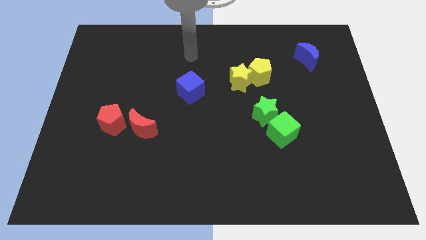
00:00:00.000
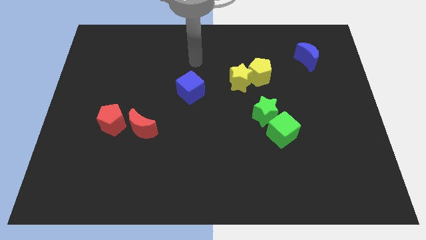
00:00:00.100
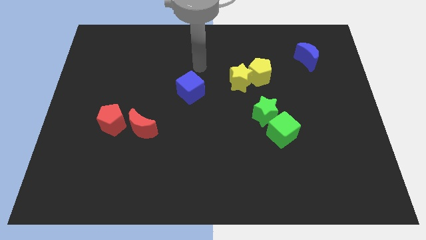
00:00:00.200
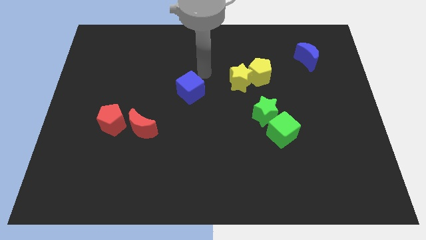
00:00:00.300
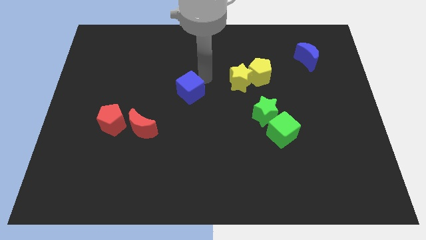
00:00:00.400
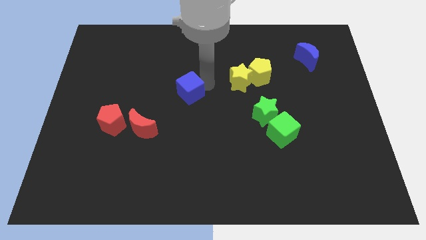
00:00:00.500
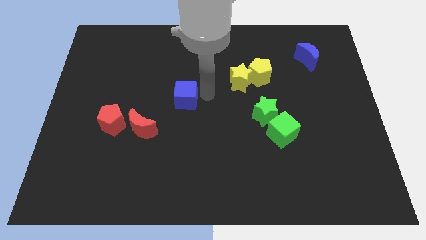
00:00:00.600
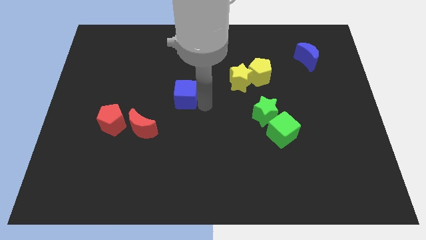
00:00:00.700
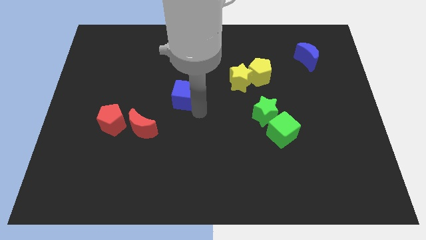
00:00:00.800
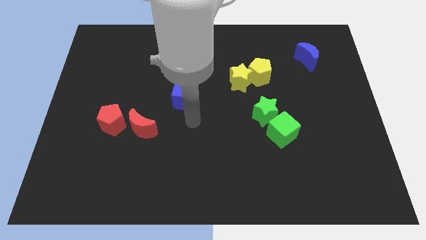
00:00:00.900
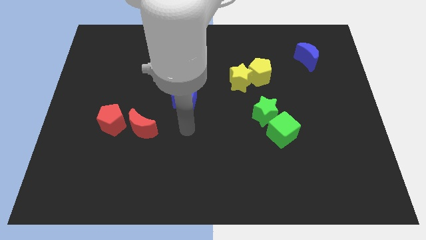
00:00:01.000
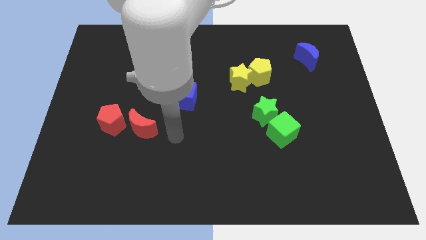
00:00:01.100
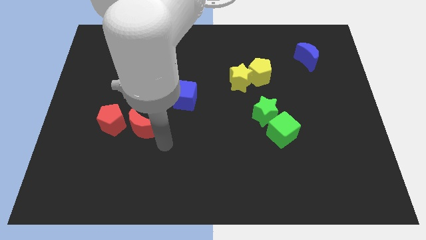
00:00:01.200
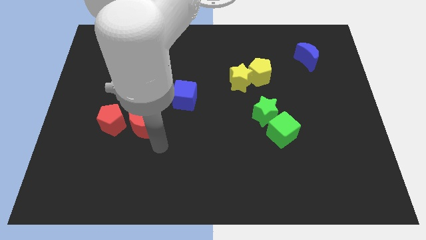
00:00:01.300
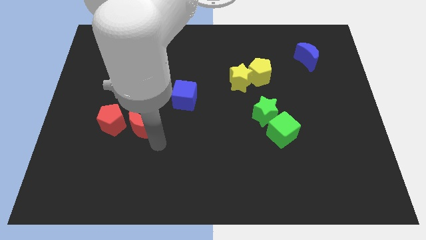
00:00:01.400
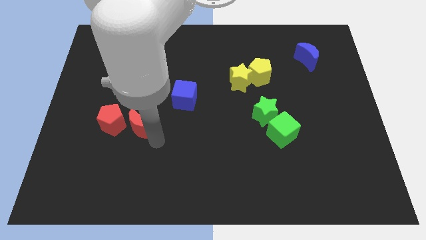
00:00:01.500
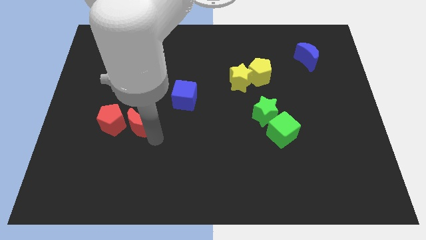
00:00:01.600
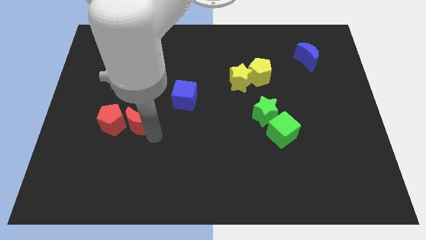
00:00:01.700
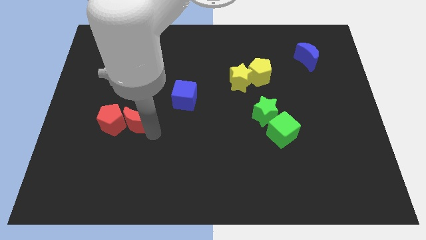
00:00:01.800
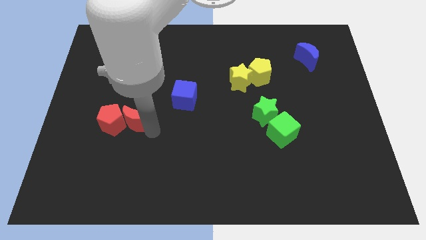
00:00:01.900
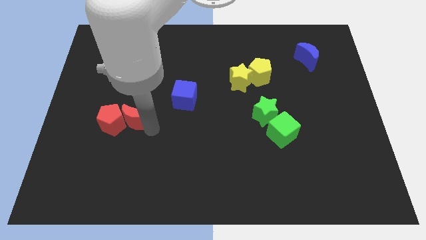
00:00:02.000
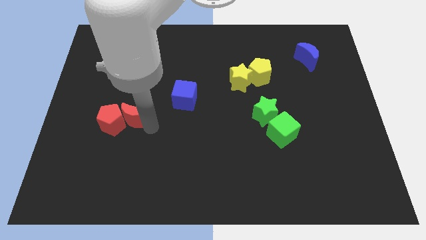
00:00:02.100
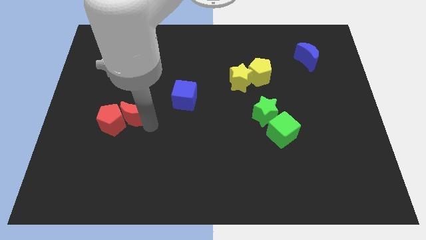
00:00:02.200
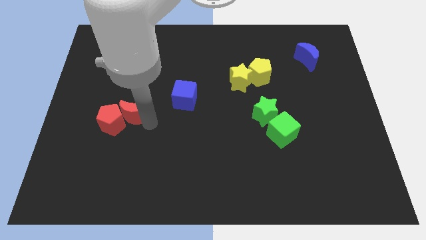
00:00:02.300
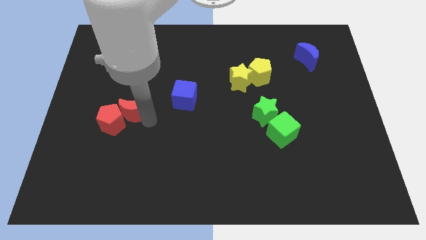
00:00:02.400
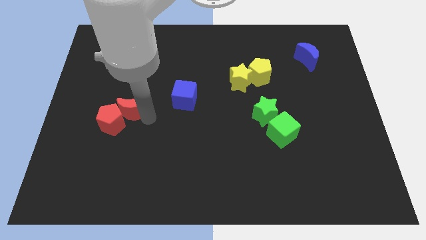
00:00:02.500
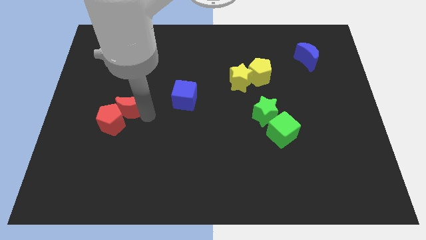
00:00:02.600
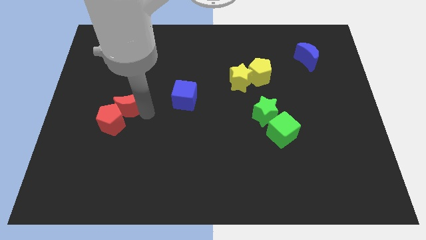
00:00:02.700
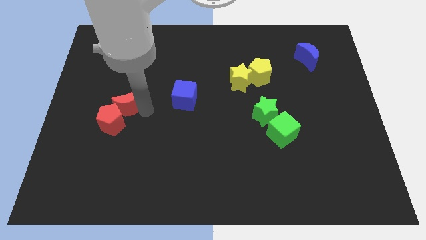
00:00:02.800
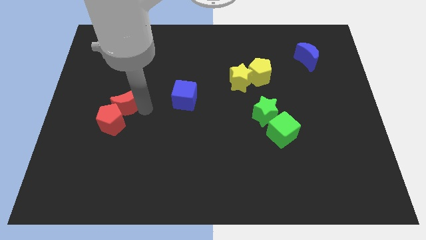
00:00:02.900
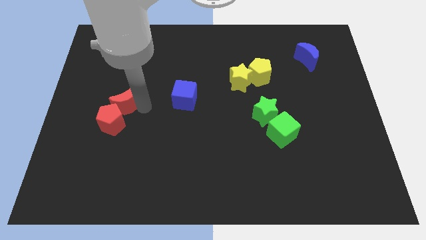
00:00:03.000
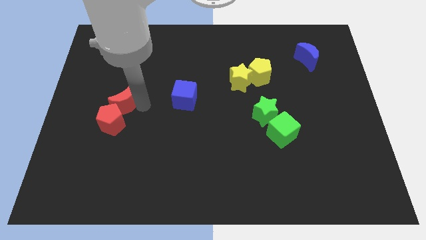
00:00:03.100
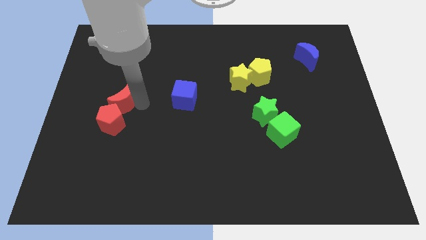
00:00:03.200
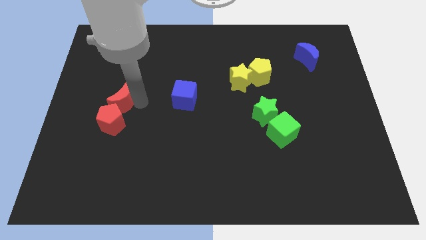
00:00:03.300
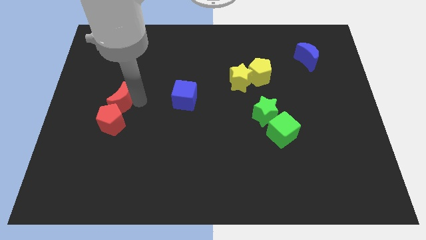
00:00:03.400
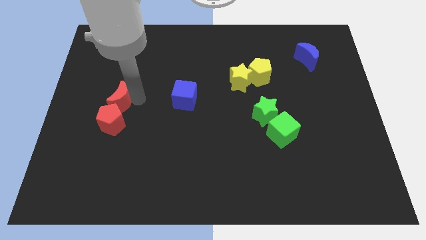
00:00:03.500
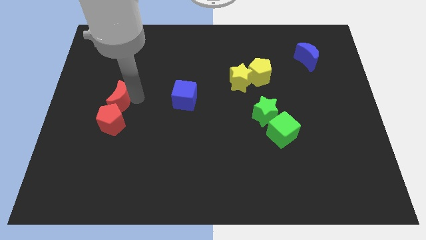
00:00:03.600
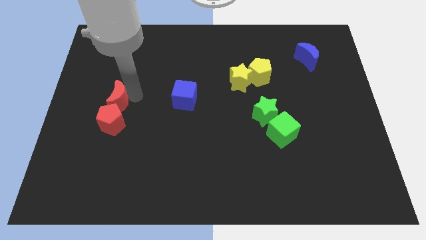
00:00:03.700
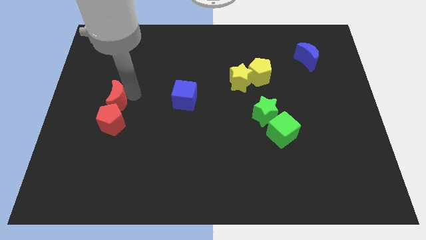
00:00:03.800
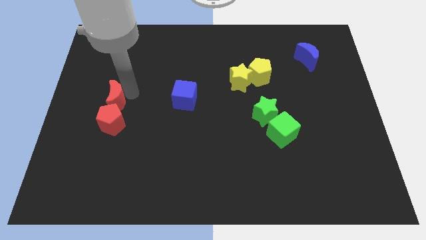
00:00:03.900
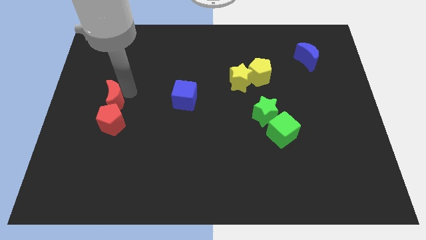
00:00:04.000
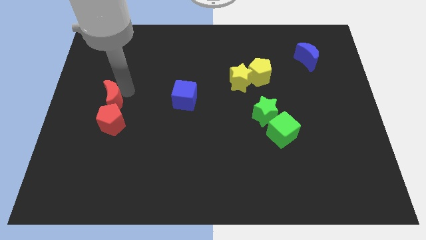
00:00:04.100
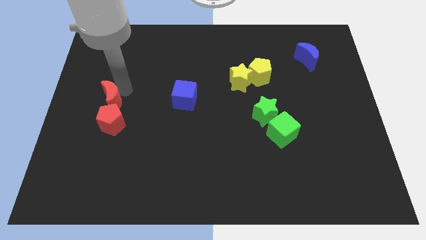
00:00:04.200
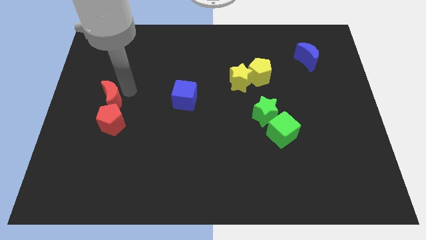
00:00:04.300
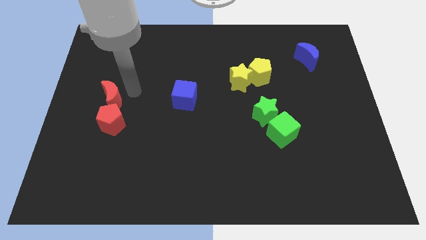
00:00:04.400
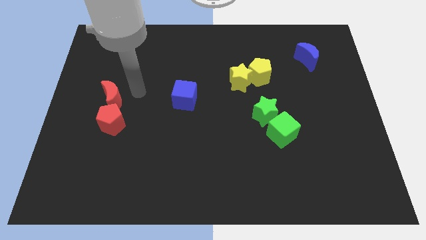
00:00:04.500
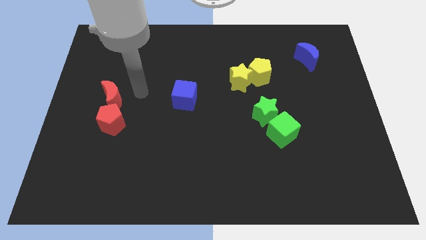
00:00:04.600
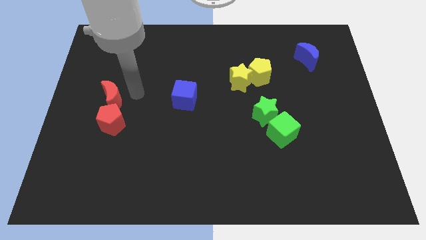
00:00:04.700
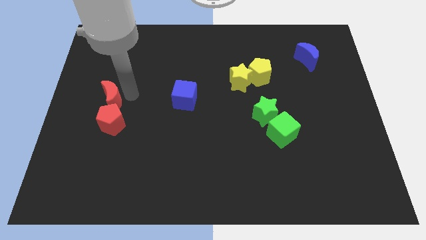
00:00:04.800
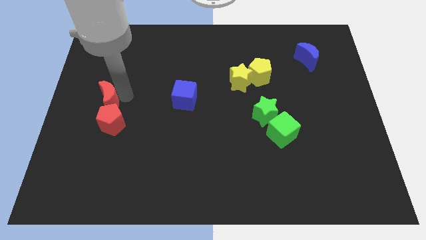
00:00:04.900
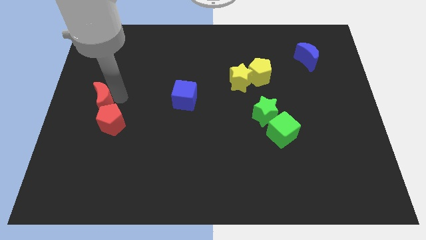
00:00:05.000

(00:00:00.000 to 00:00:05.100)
slide the red moon to the center left

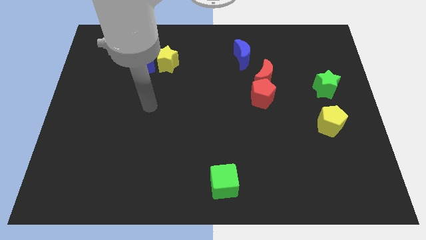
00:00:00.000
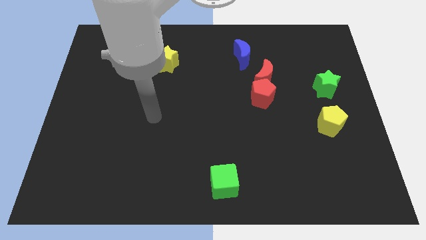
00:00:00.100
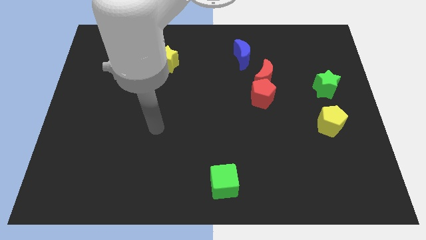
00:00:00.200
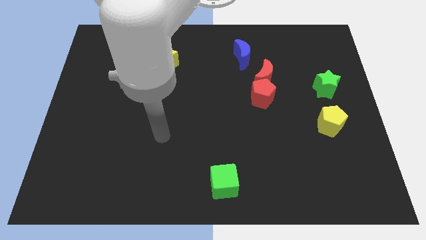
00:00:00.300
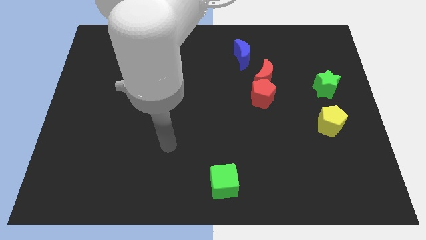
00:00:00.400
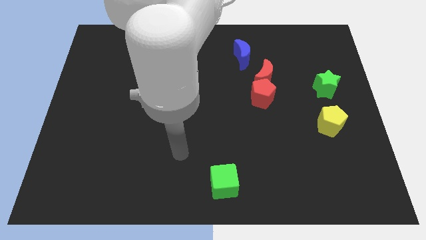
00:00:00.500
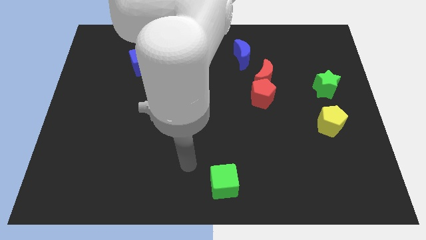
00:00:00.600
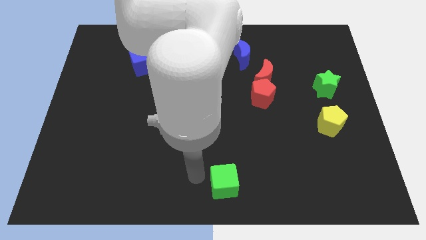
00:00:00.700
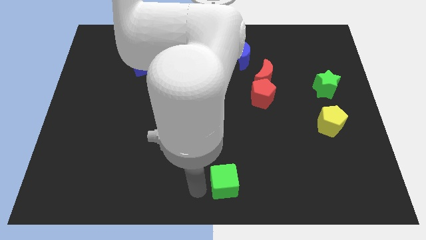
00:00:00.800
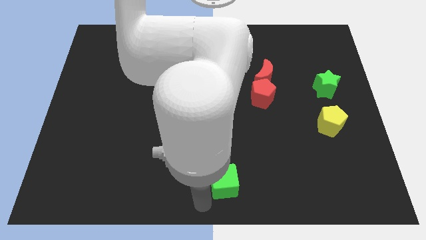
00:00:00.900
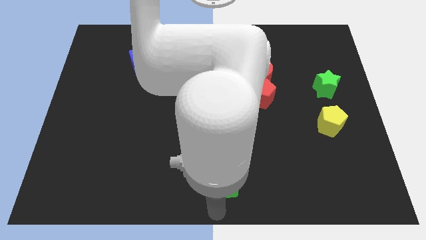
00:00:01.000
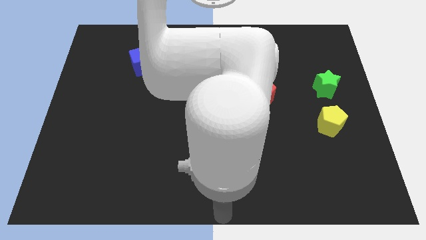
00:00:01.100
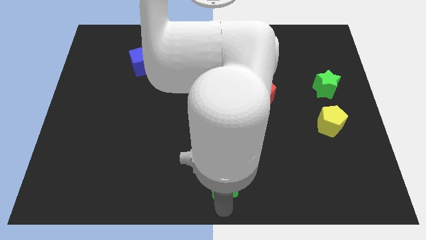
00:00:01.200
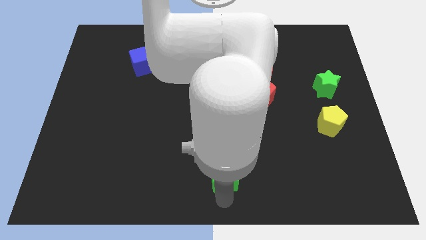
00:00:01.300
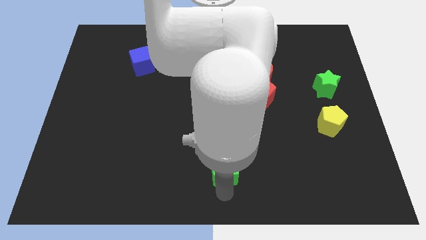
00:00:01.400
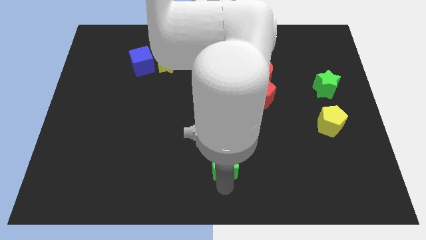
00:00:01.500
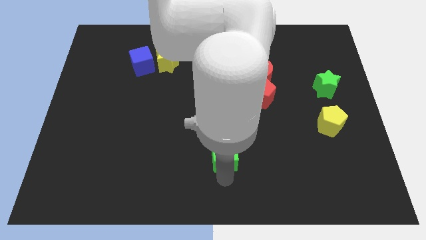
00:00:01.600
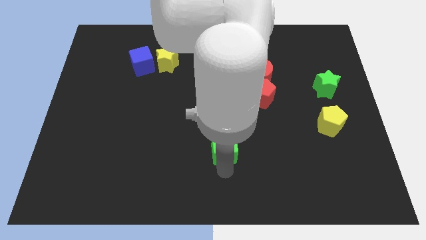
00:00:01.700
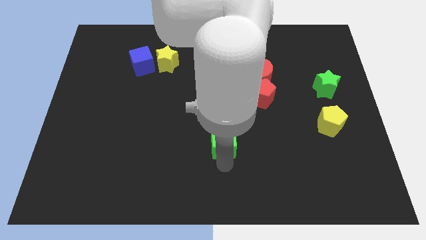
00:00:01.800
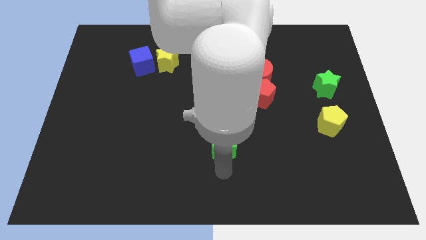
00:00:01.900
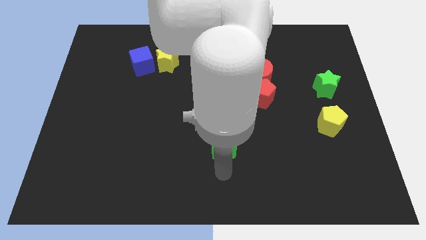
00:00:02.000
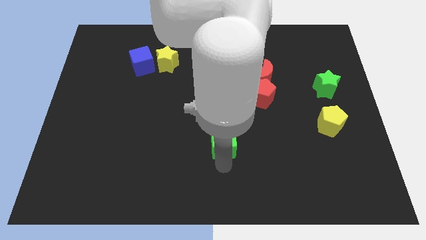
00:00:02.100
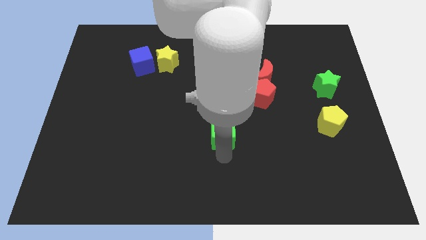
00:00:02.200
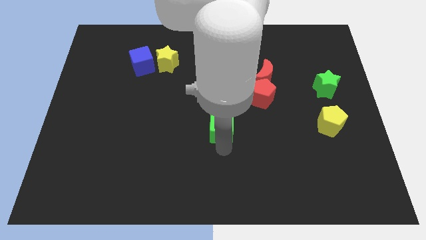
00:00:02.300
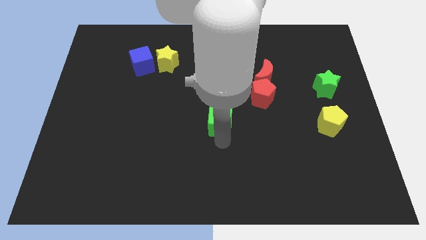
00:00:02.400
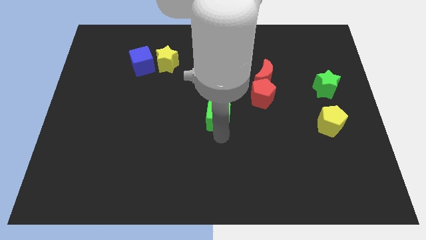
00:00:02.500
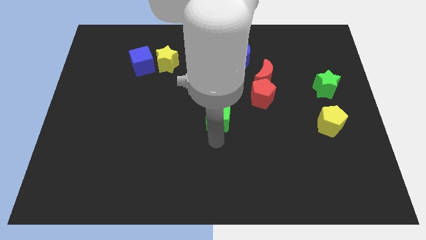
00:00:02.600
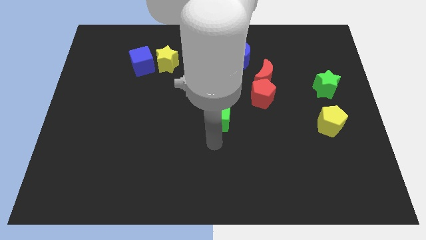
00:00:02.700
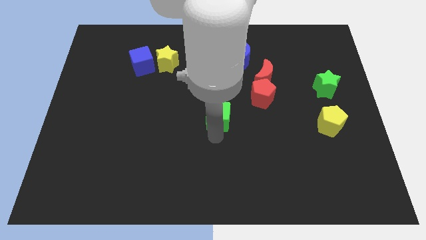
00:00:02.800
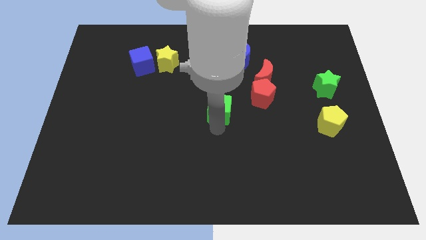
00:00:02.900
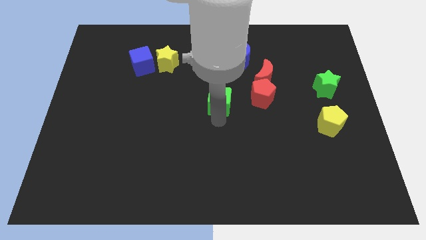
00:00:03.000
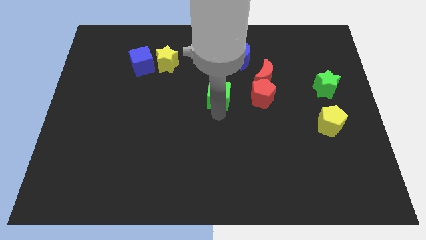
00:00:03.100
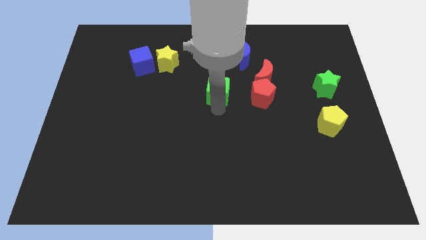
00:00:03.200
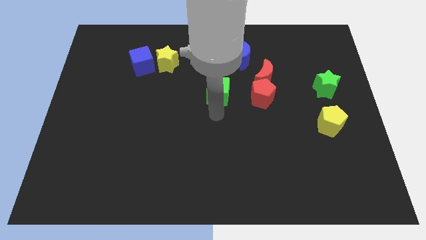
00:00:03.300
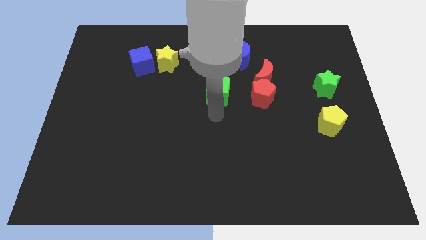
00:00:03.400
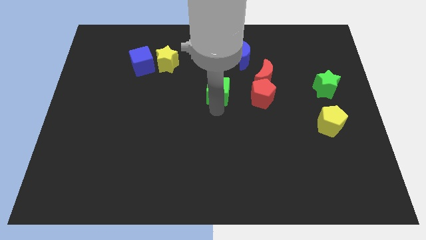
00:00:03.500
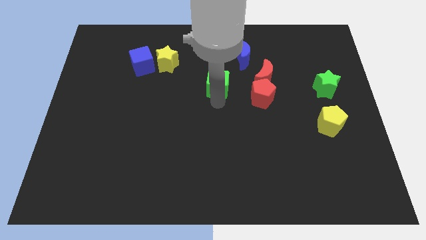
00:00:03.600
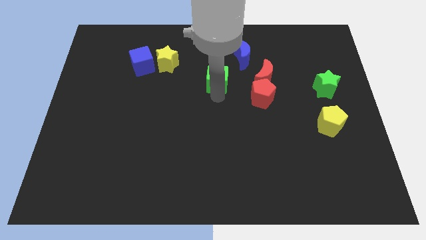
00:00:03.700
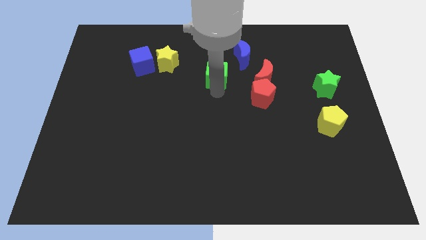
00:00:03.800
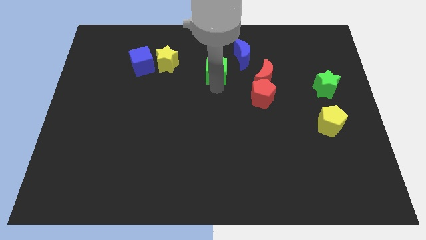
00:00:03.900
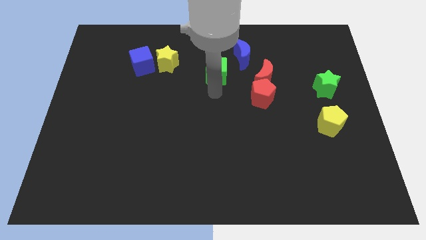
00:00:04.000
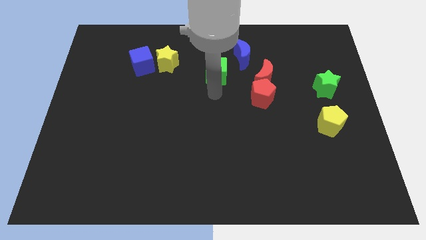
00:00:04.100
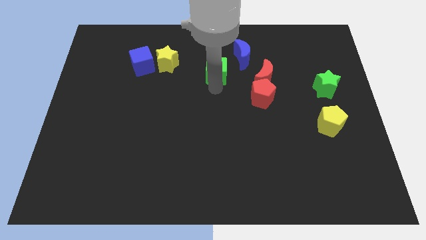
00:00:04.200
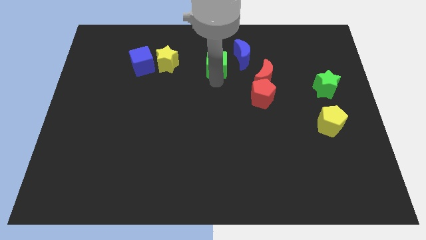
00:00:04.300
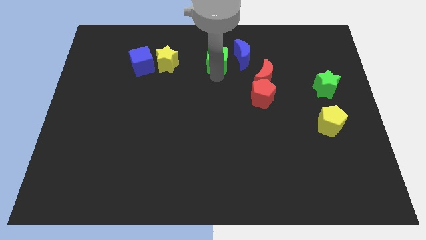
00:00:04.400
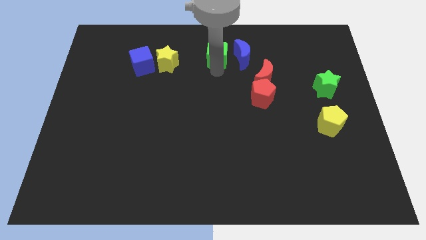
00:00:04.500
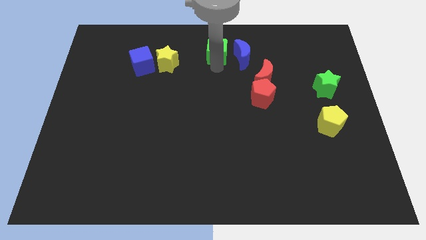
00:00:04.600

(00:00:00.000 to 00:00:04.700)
move the green cube to the top
